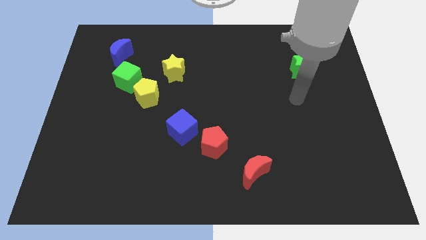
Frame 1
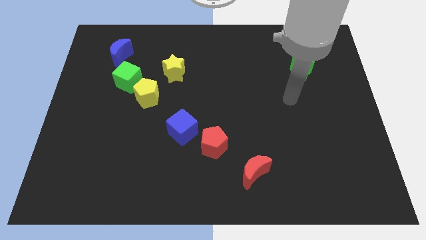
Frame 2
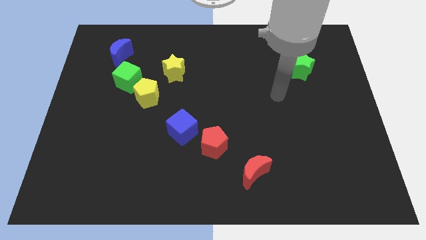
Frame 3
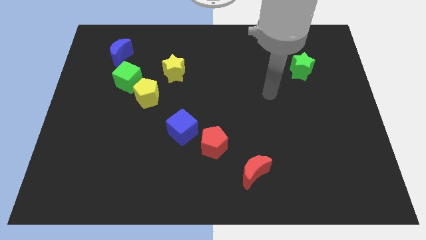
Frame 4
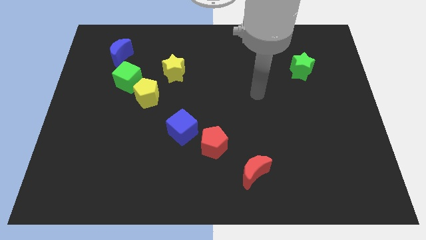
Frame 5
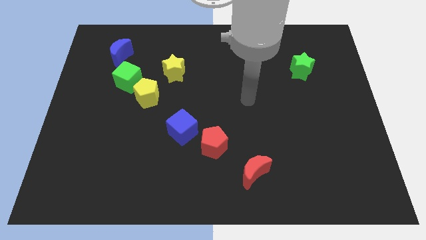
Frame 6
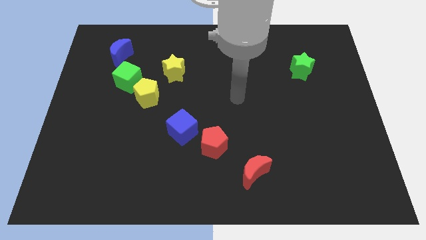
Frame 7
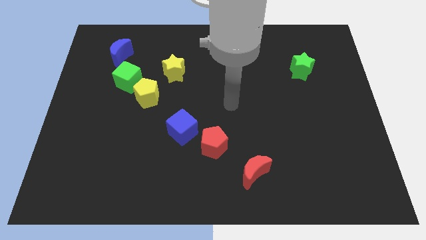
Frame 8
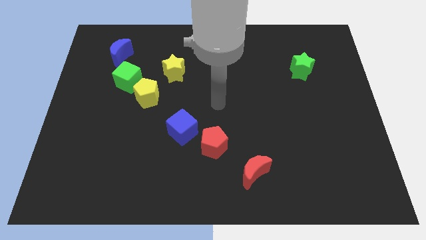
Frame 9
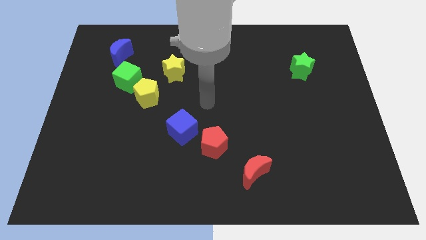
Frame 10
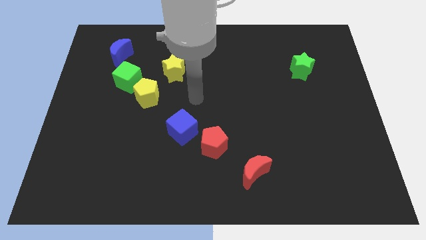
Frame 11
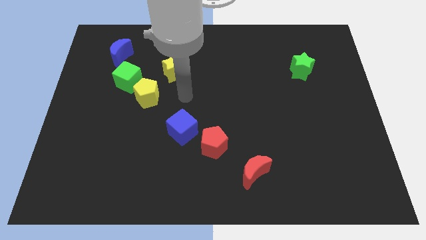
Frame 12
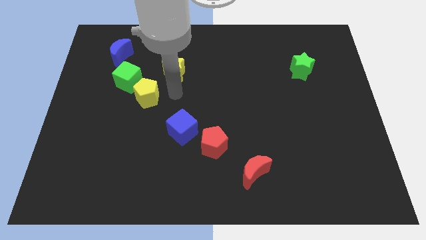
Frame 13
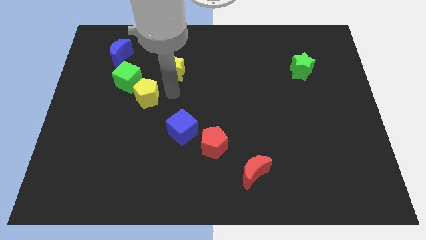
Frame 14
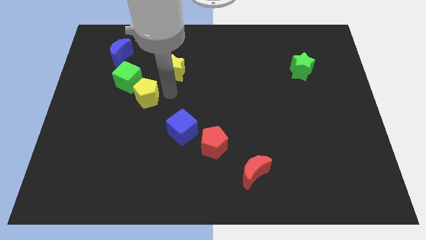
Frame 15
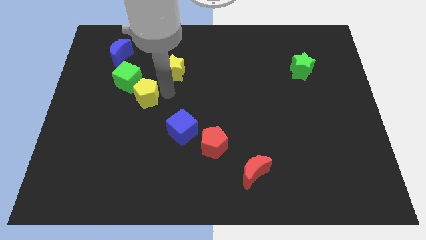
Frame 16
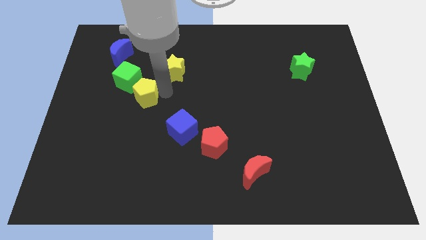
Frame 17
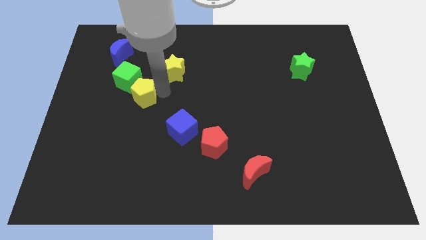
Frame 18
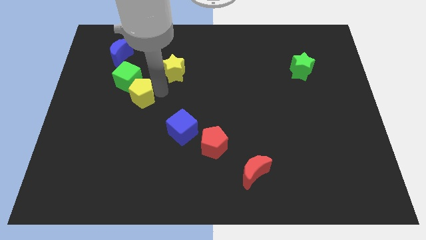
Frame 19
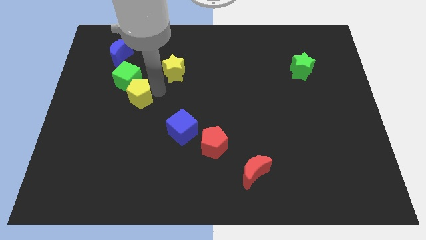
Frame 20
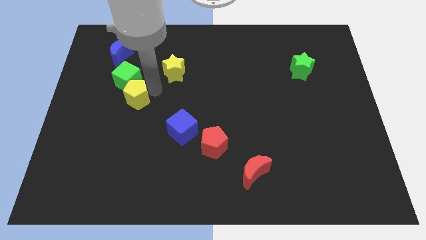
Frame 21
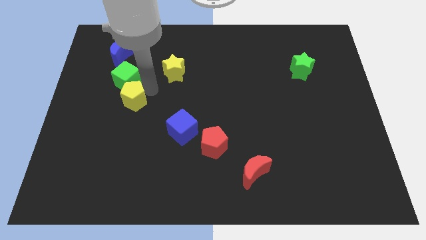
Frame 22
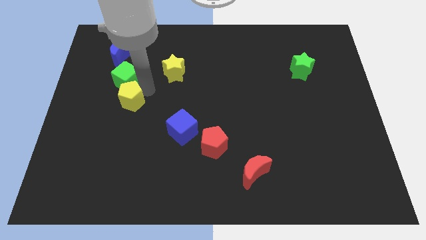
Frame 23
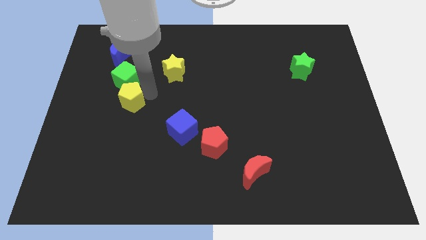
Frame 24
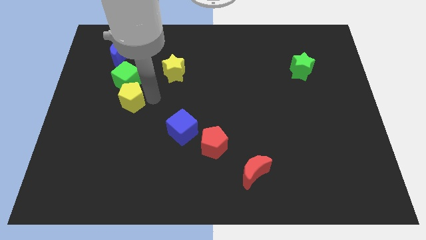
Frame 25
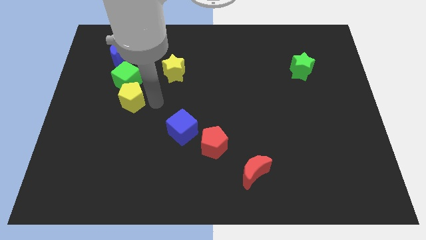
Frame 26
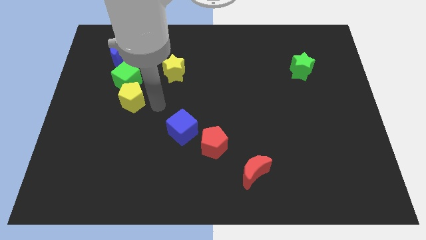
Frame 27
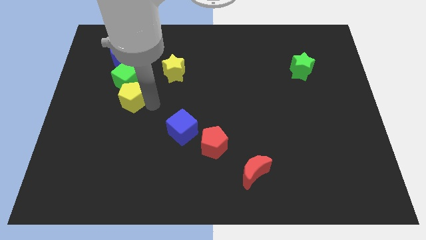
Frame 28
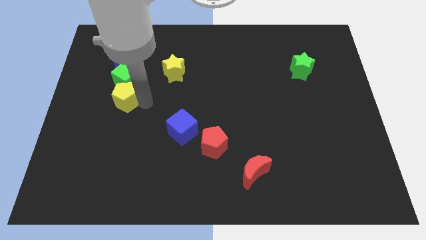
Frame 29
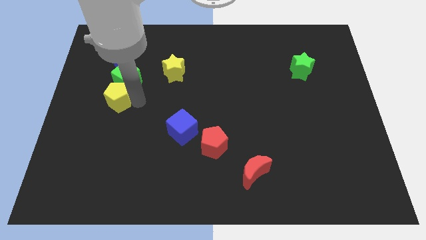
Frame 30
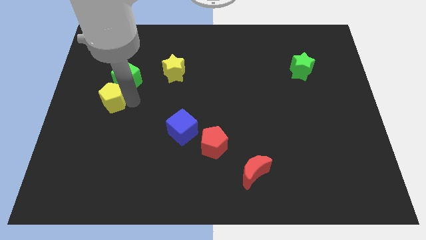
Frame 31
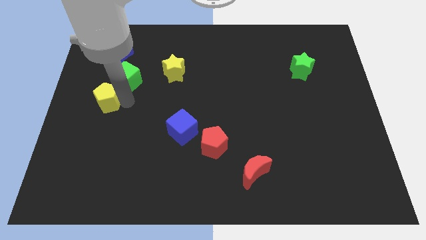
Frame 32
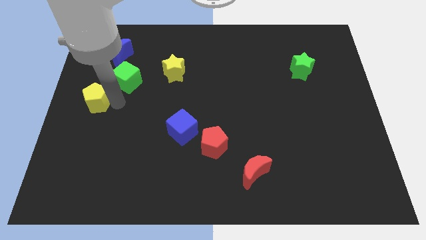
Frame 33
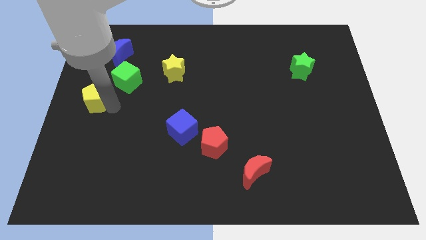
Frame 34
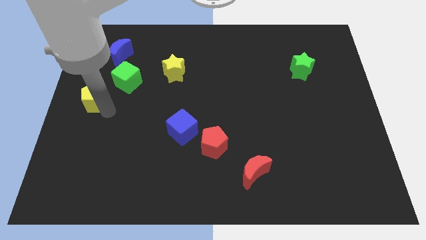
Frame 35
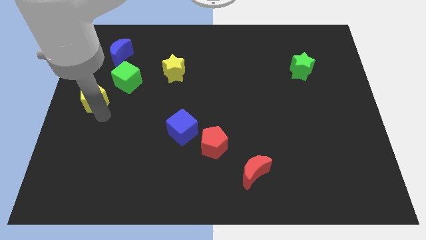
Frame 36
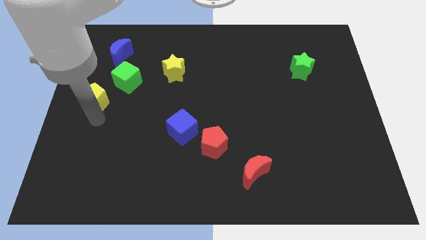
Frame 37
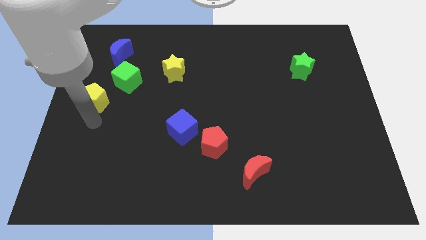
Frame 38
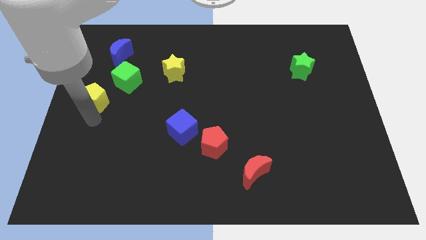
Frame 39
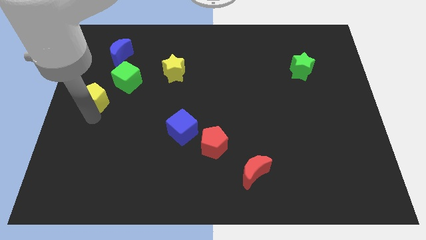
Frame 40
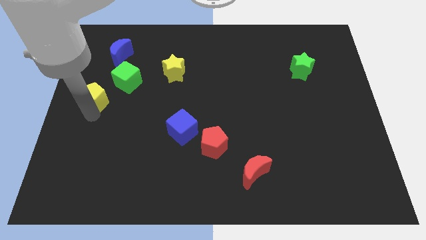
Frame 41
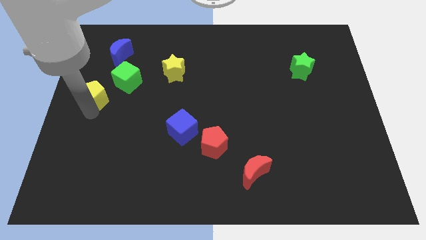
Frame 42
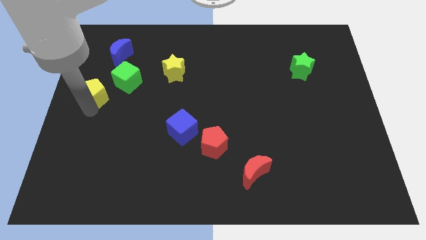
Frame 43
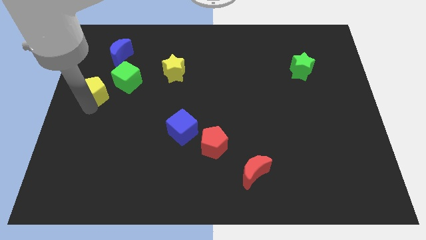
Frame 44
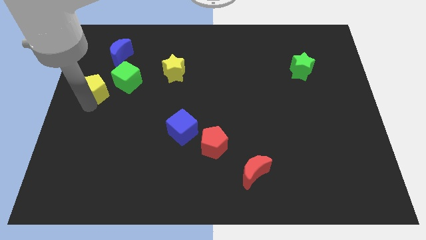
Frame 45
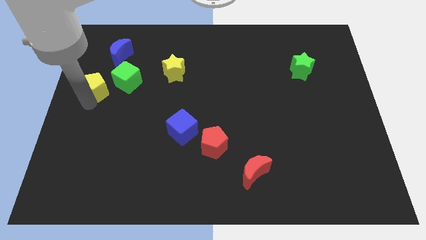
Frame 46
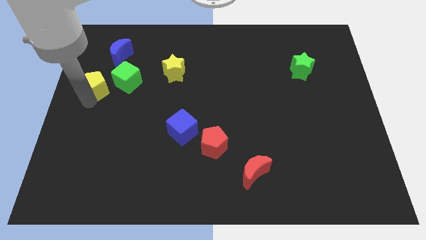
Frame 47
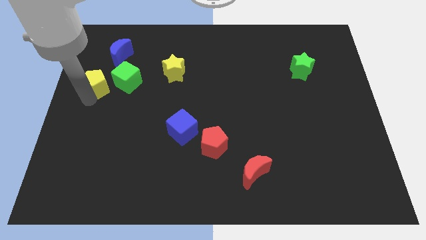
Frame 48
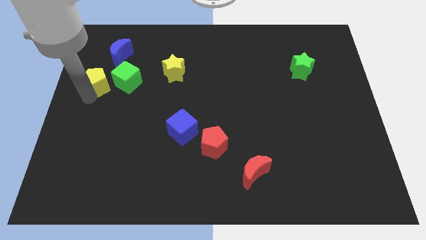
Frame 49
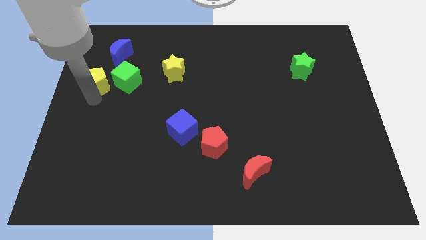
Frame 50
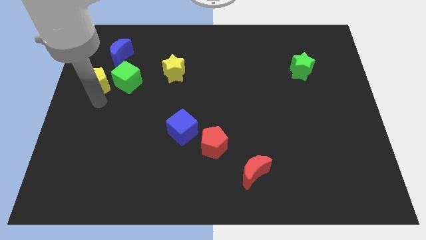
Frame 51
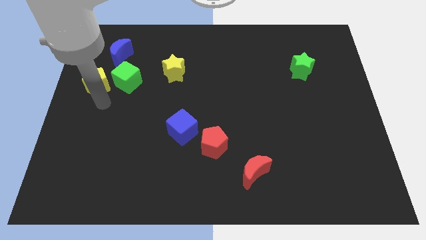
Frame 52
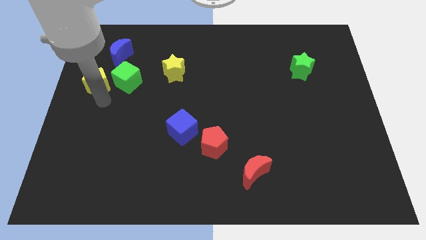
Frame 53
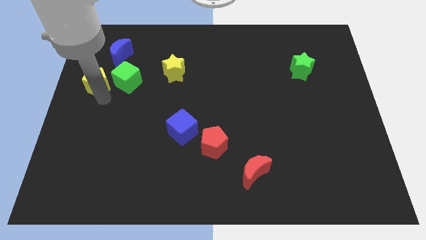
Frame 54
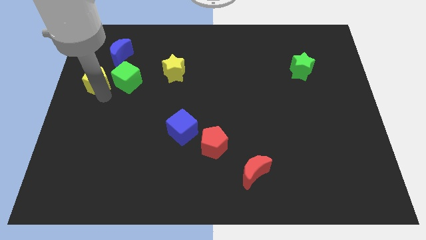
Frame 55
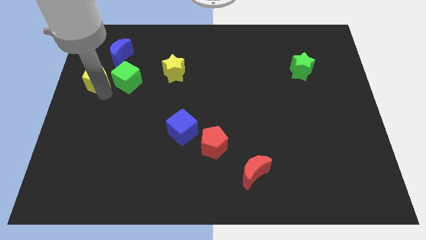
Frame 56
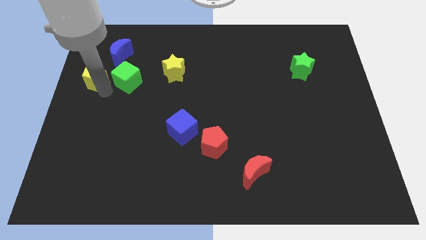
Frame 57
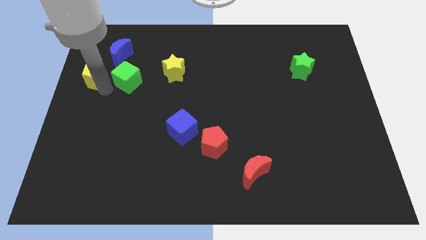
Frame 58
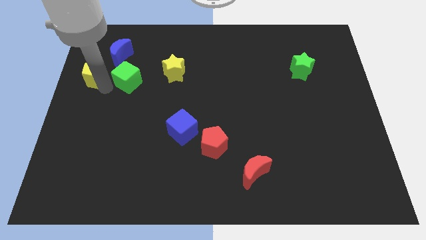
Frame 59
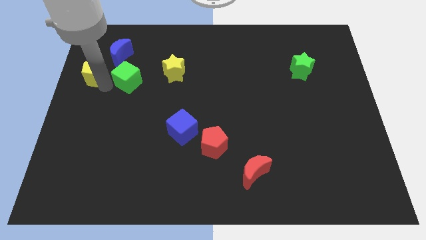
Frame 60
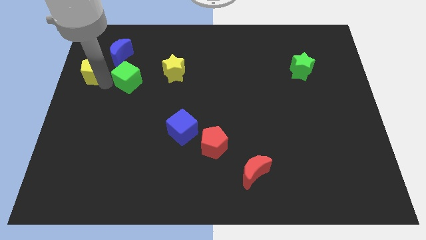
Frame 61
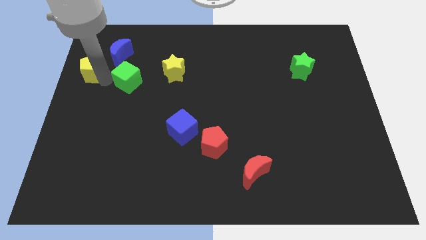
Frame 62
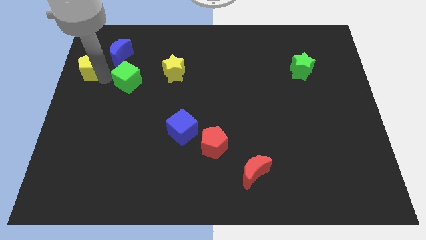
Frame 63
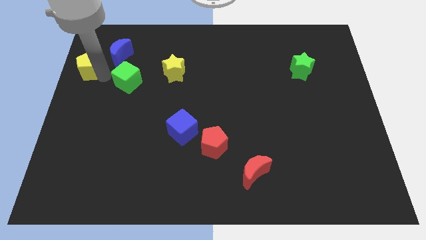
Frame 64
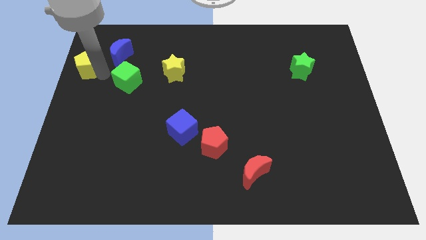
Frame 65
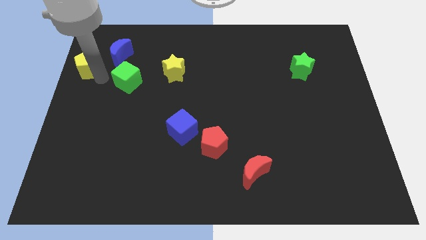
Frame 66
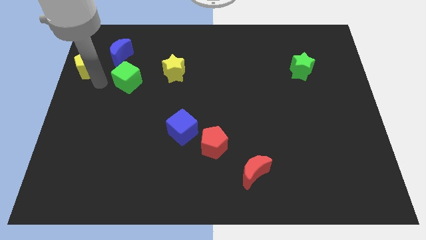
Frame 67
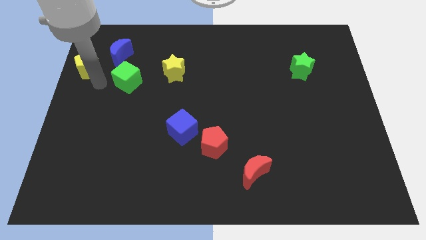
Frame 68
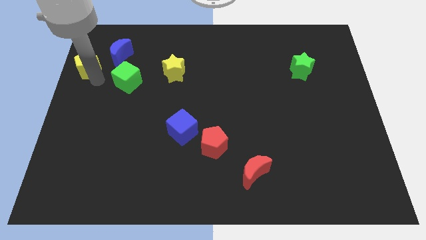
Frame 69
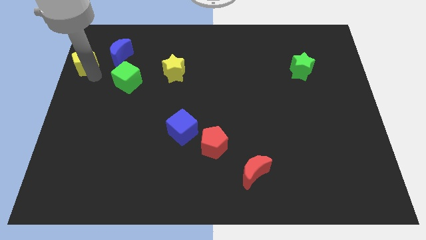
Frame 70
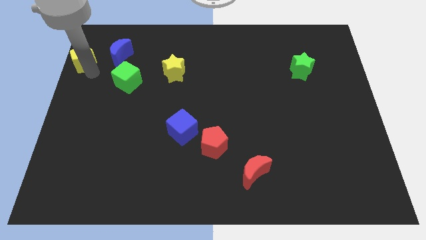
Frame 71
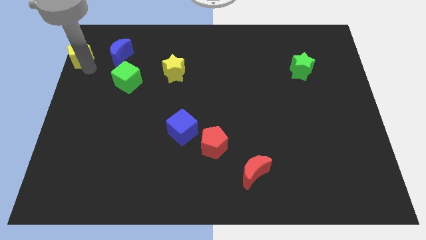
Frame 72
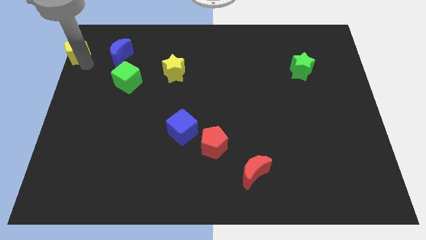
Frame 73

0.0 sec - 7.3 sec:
put the yellow pentagon to the top left of the board
